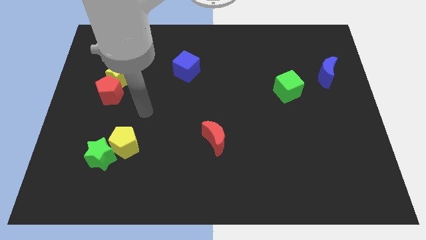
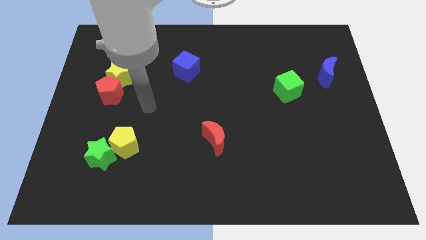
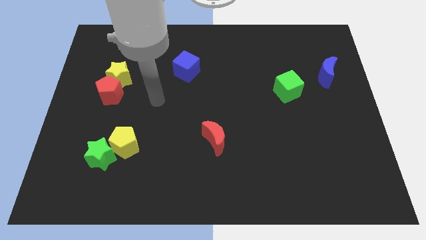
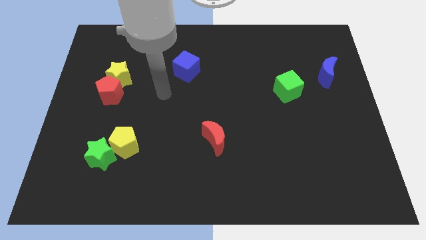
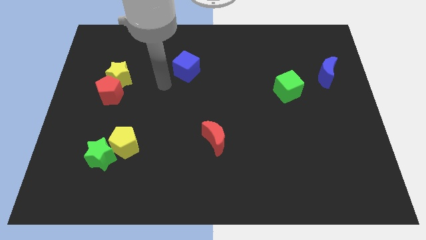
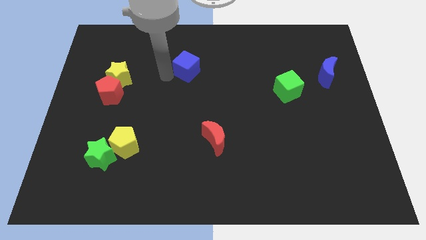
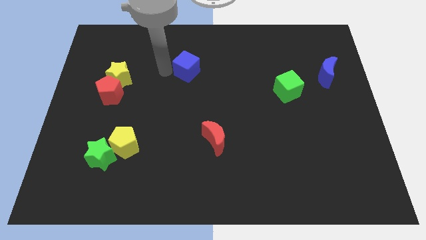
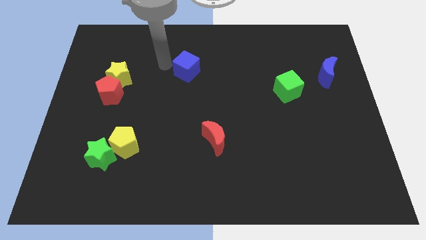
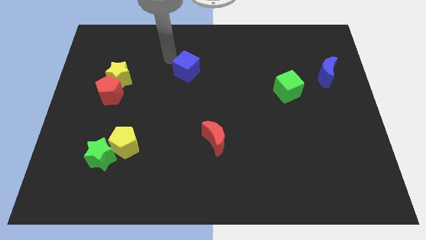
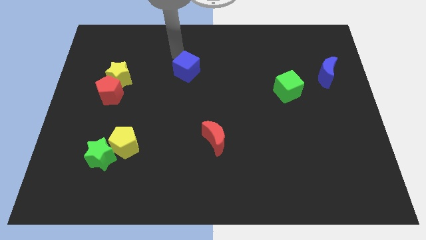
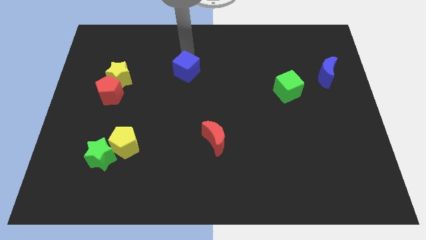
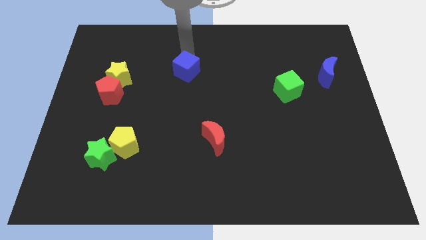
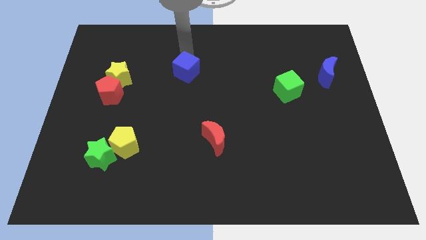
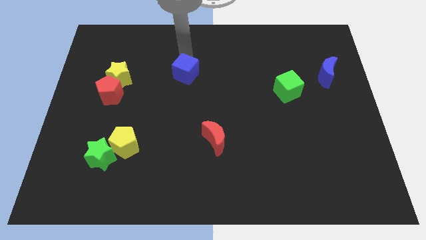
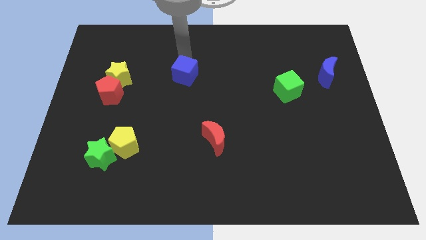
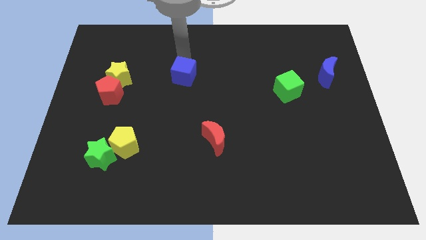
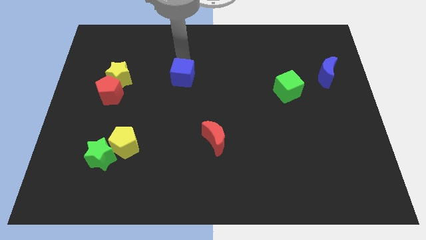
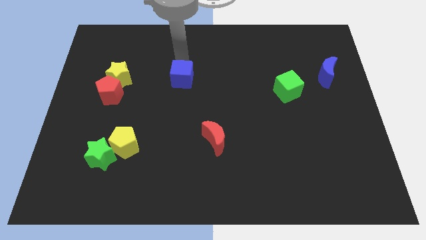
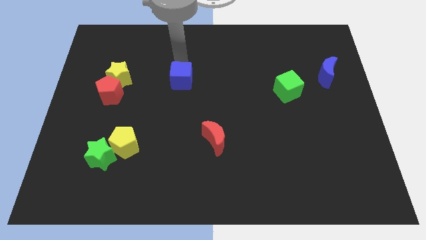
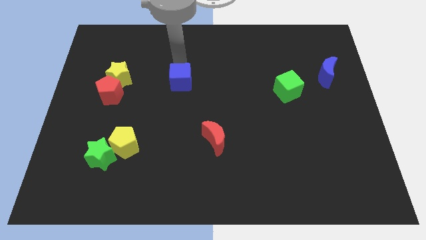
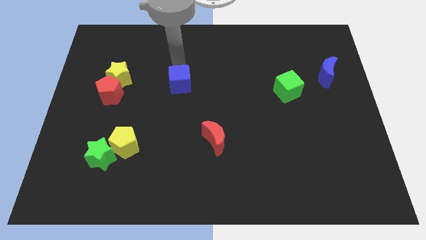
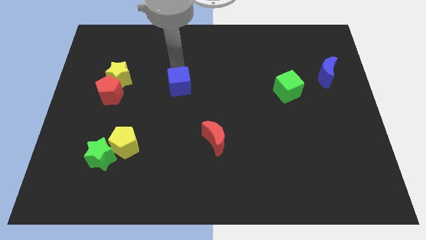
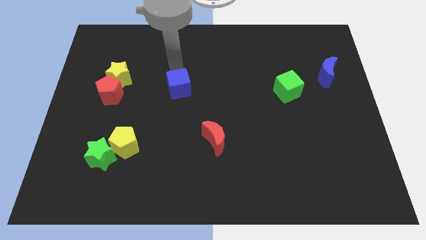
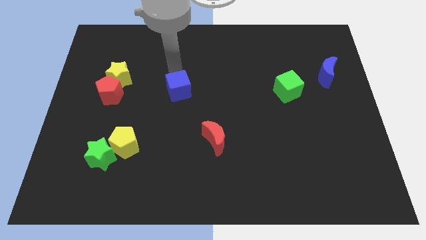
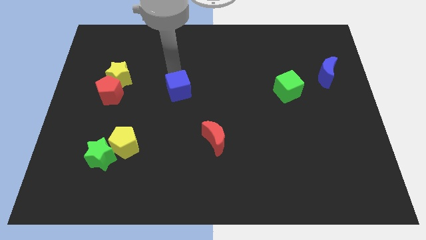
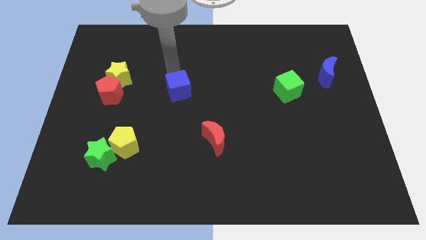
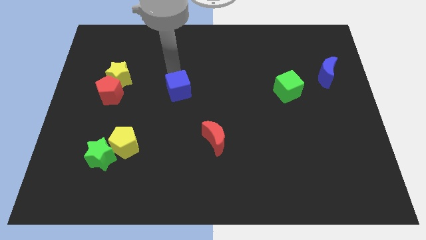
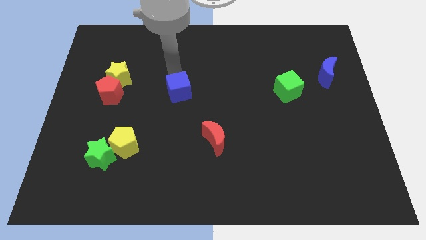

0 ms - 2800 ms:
slightly move the blue cube down

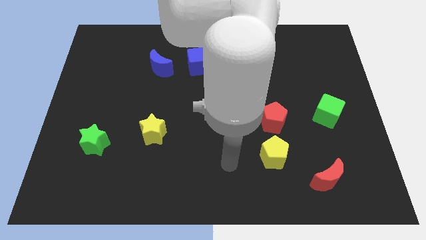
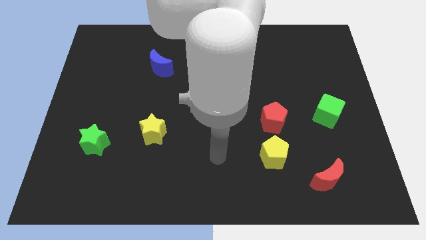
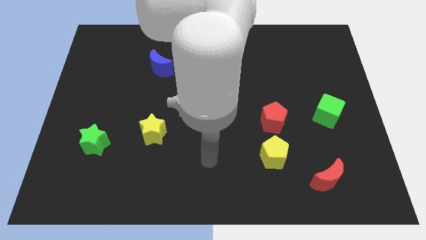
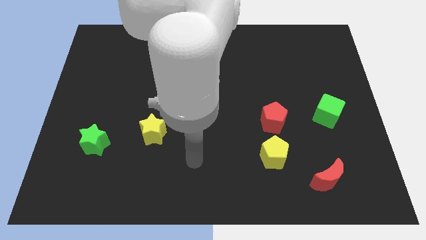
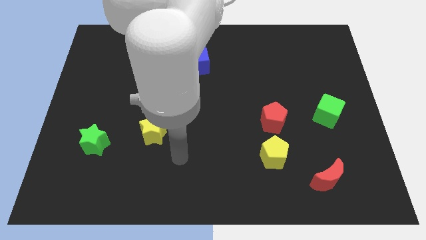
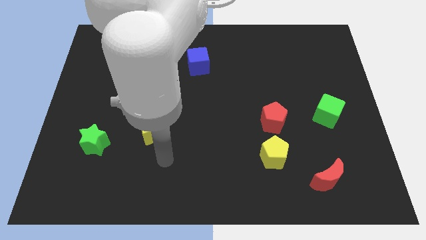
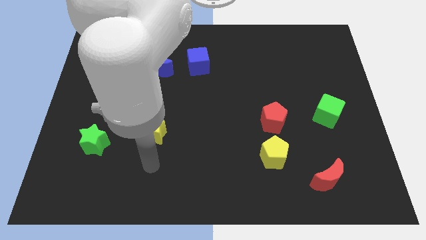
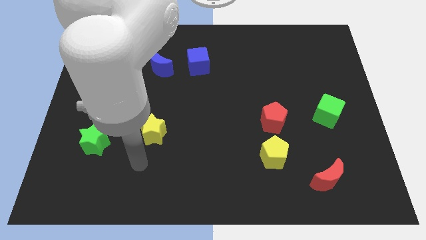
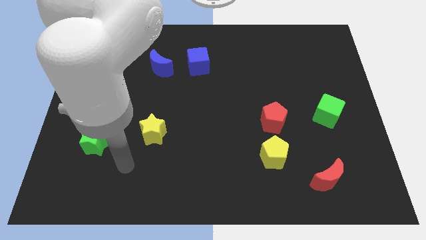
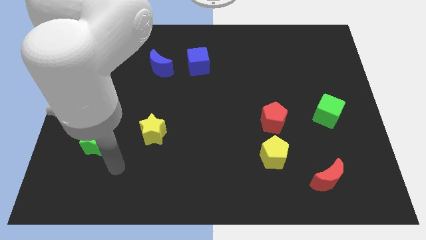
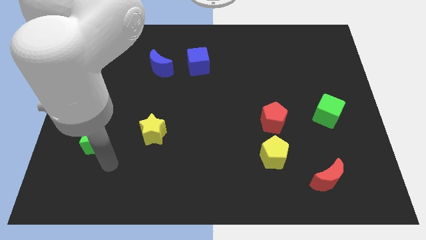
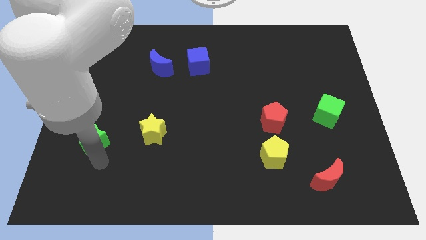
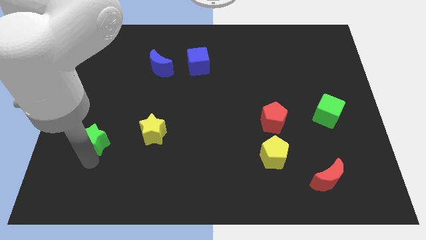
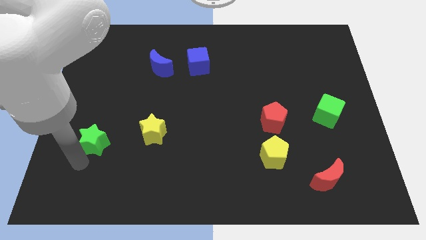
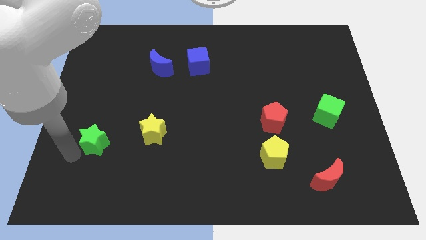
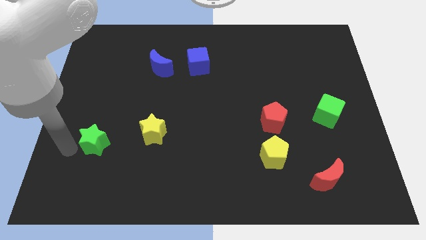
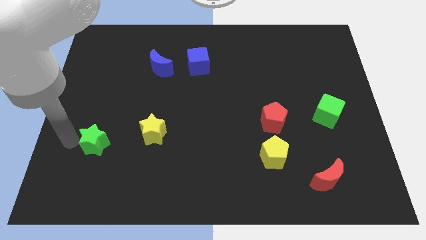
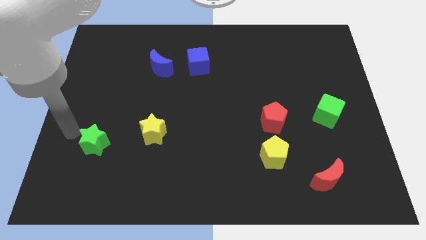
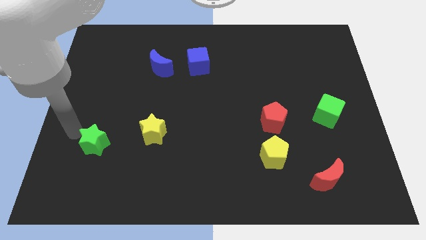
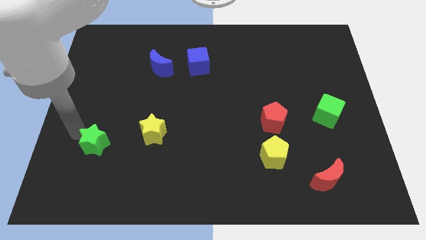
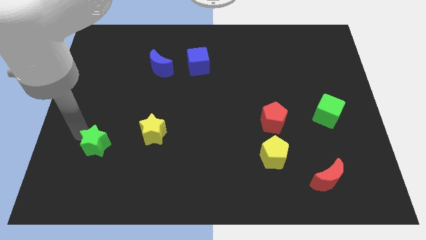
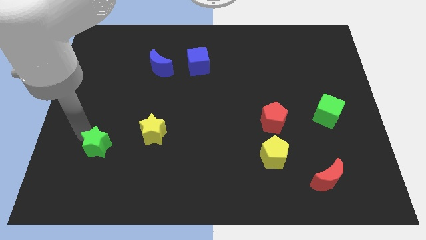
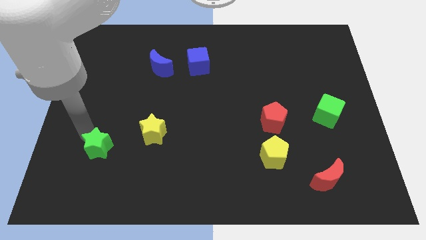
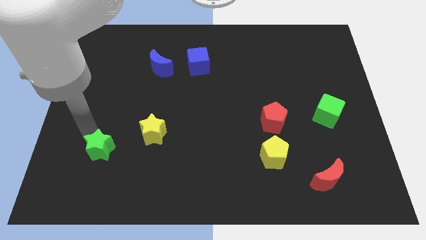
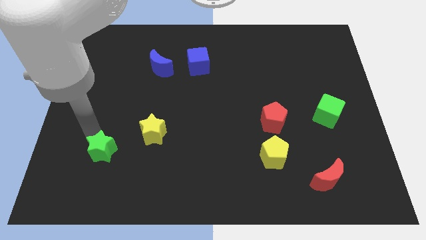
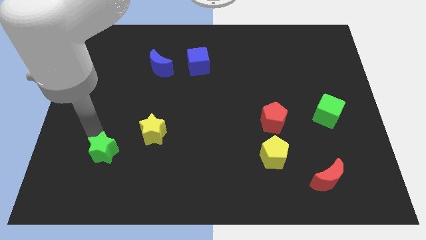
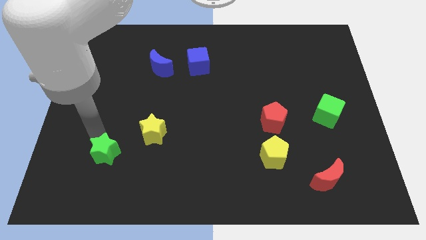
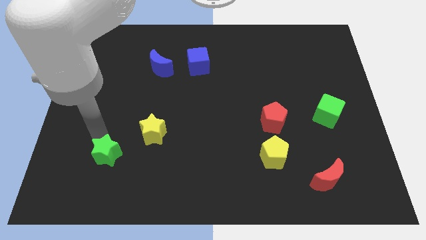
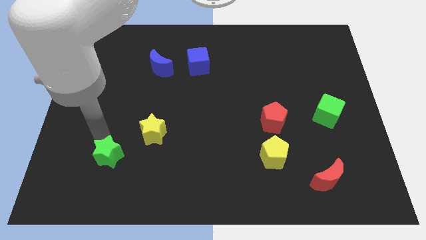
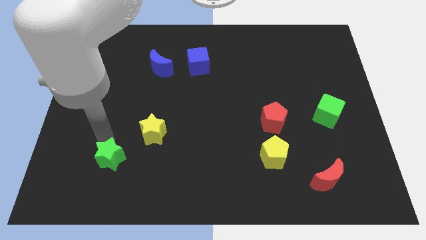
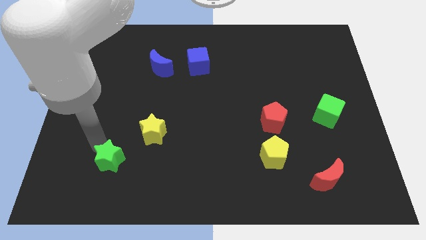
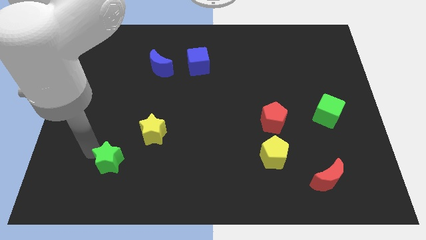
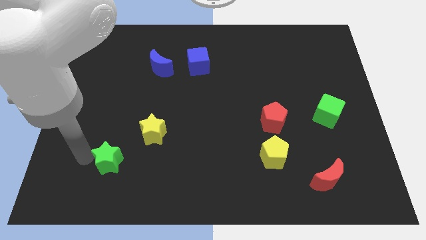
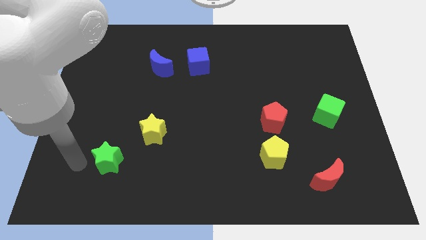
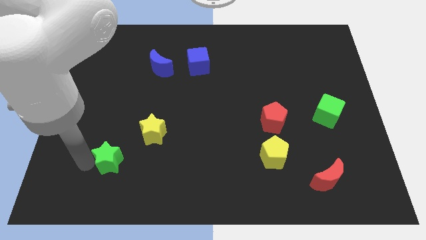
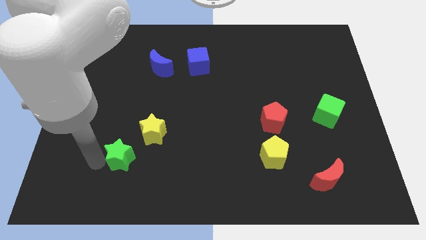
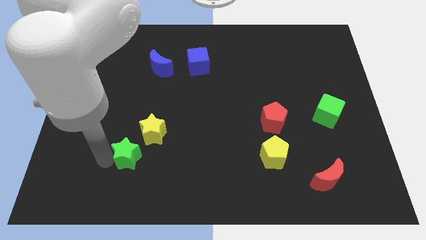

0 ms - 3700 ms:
push the green star slightly right

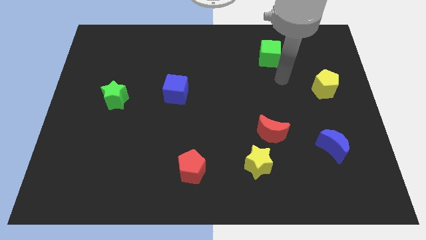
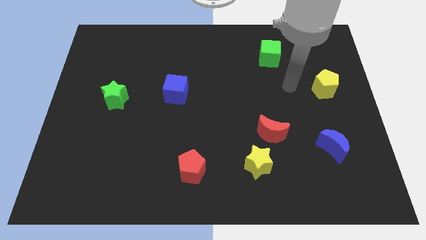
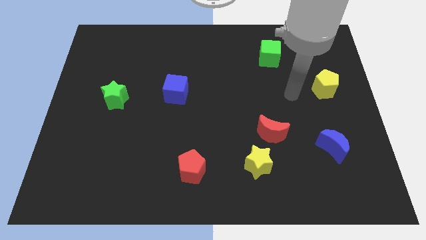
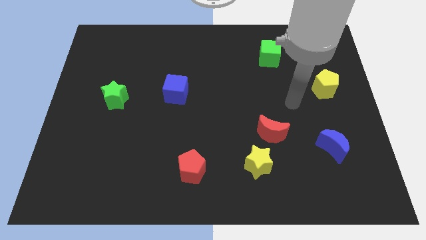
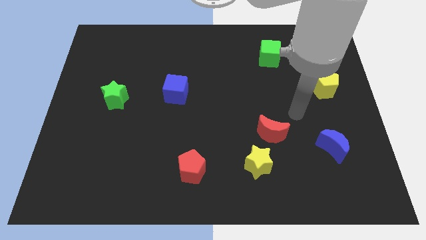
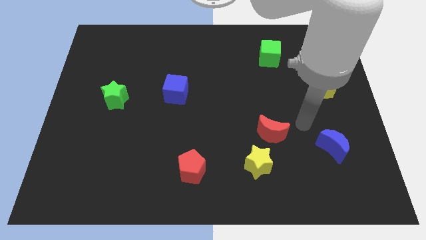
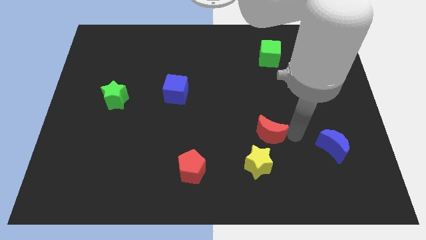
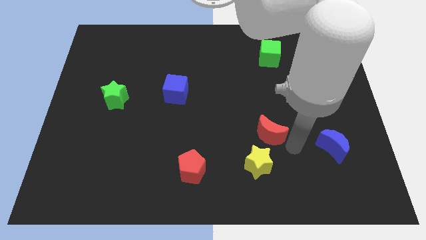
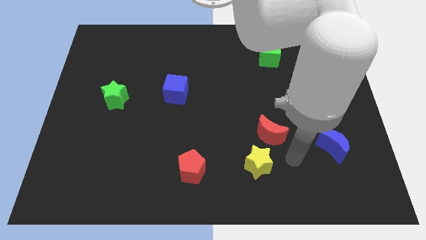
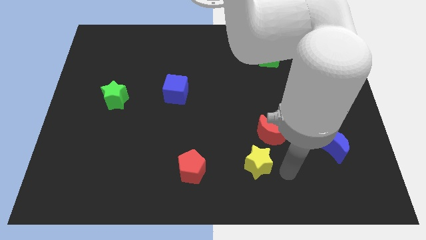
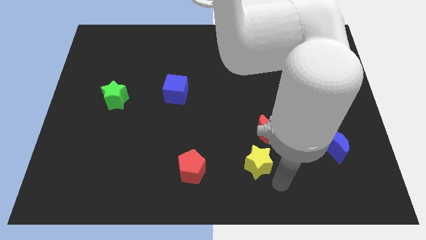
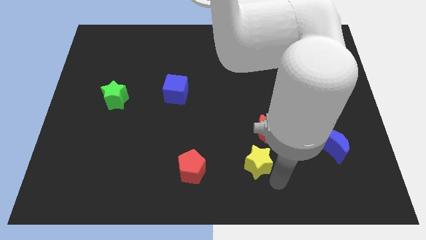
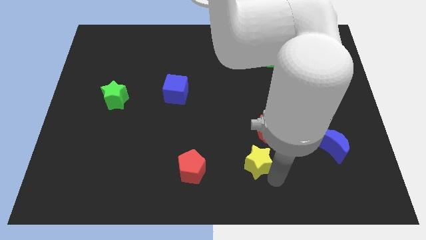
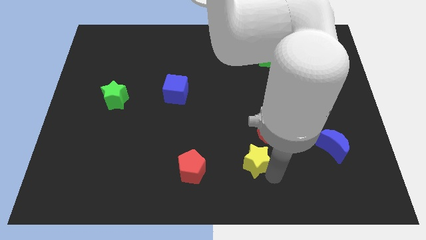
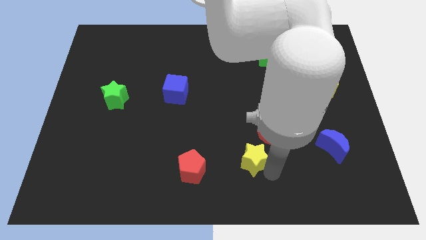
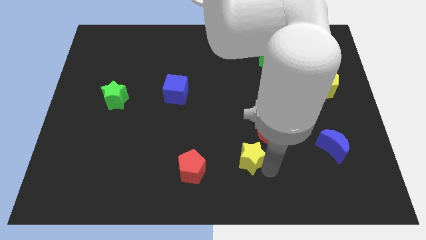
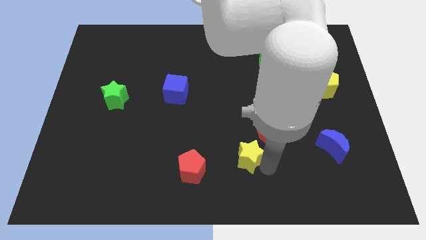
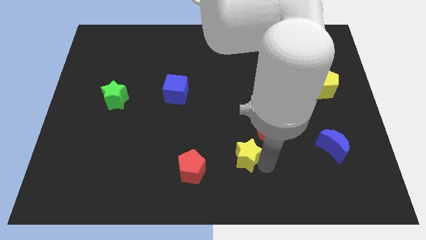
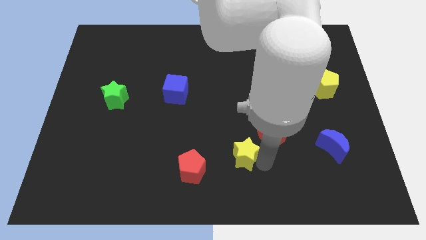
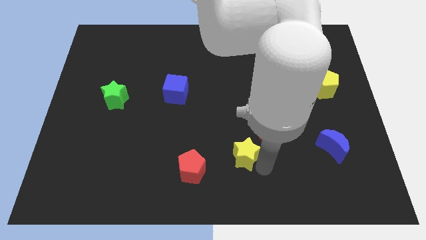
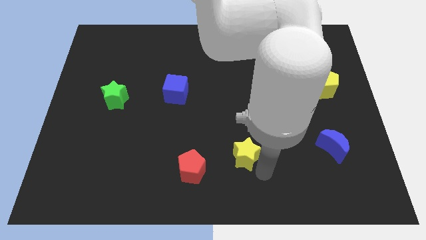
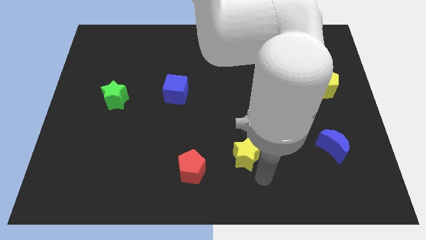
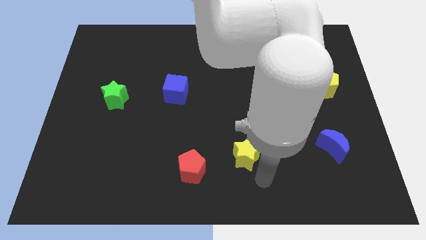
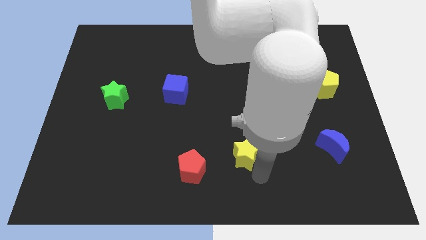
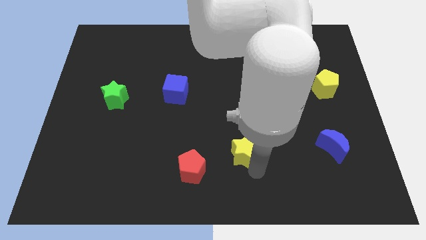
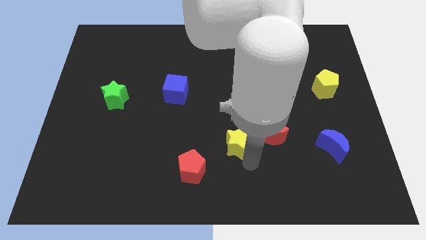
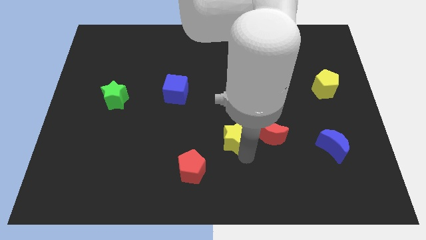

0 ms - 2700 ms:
move the yellow star a little bit upwards and left diagonally
